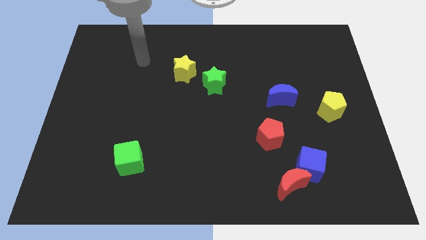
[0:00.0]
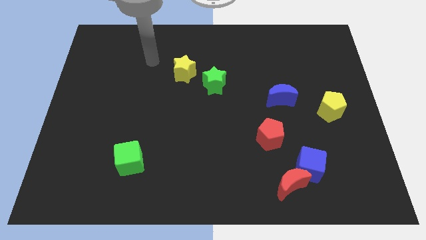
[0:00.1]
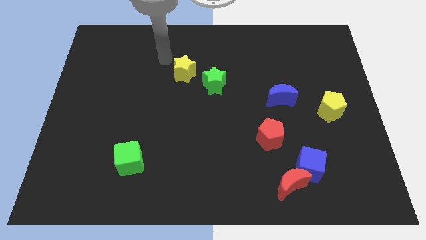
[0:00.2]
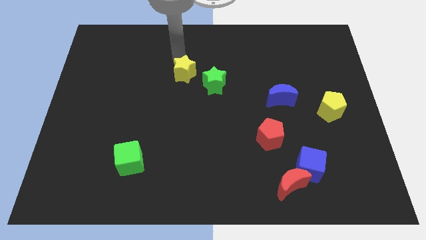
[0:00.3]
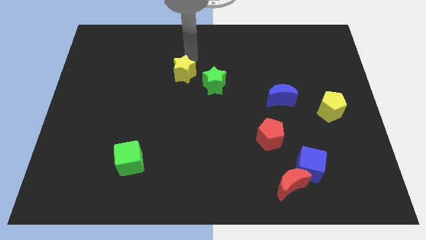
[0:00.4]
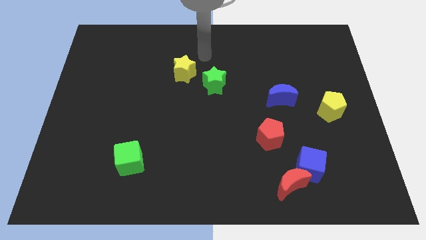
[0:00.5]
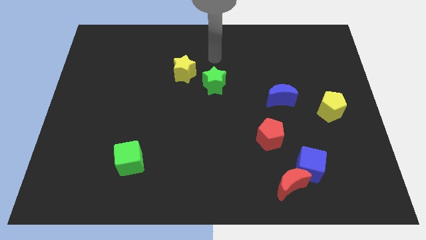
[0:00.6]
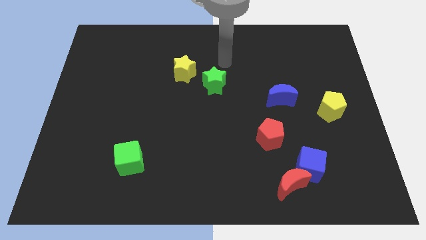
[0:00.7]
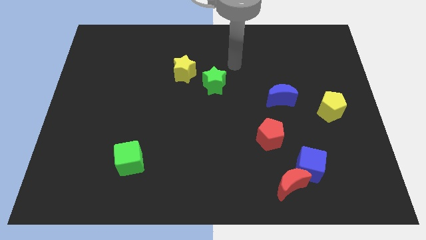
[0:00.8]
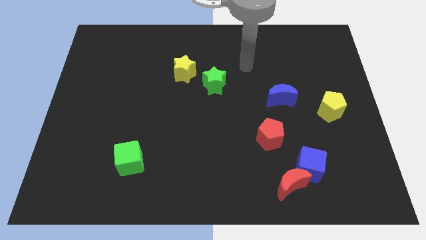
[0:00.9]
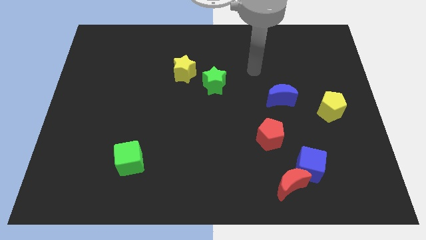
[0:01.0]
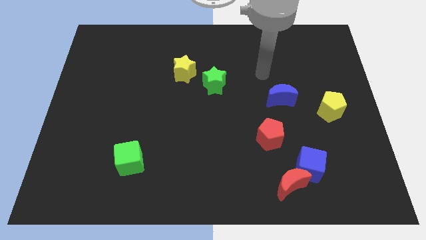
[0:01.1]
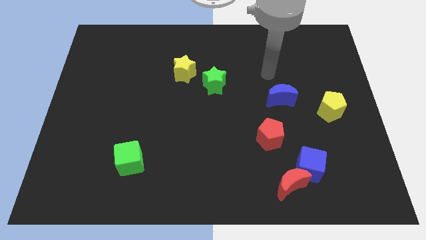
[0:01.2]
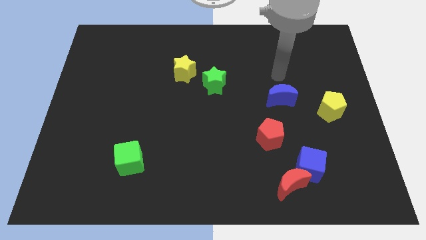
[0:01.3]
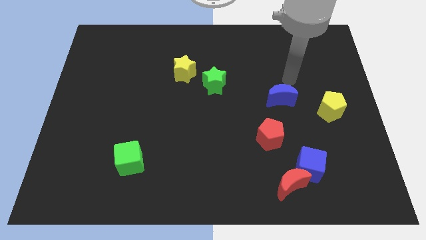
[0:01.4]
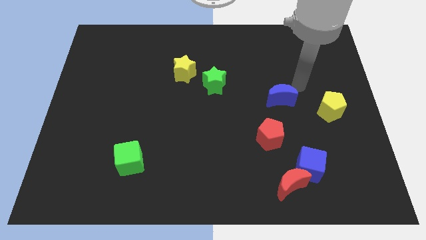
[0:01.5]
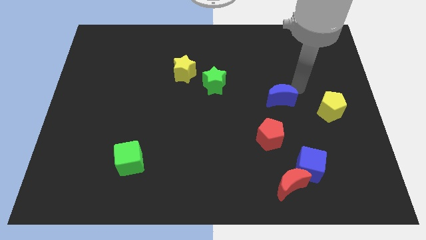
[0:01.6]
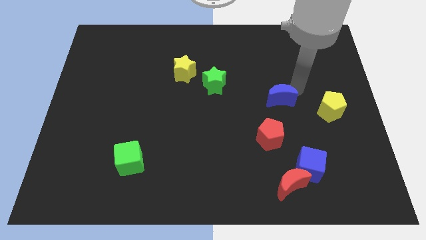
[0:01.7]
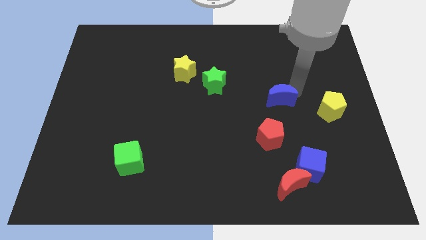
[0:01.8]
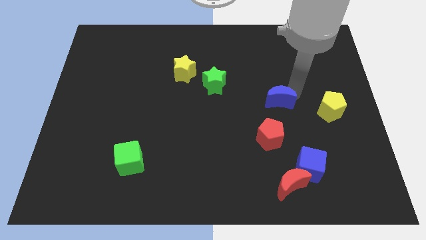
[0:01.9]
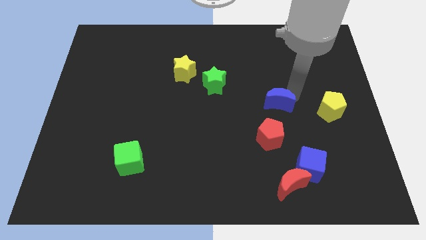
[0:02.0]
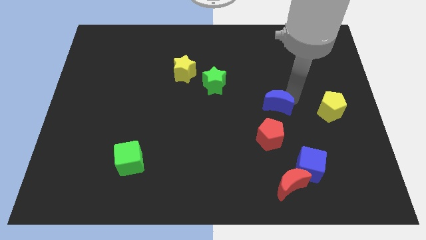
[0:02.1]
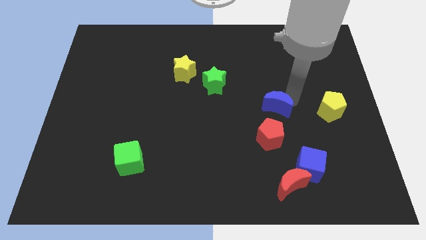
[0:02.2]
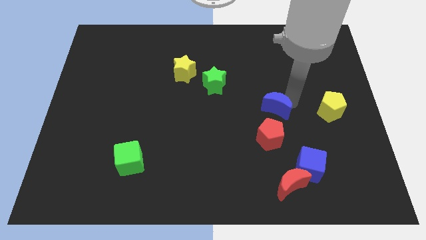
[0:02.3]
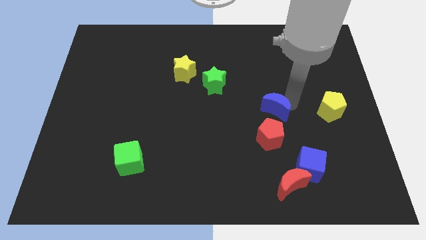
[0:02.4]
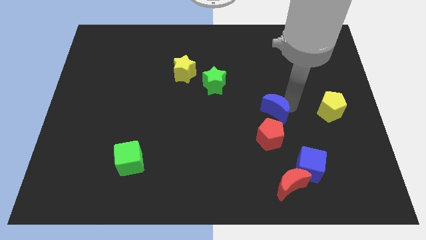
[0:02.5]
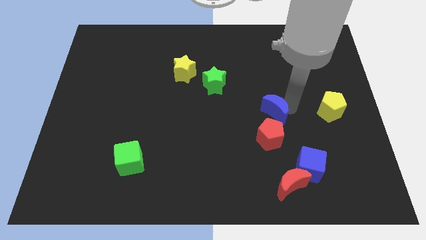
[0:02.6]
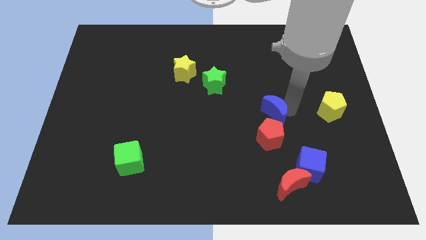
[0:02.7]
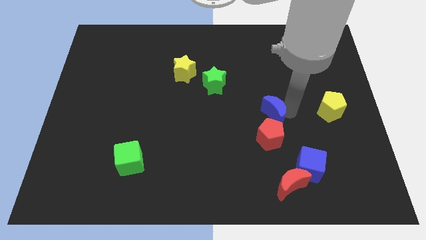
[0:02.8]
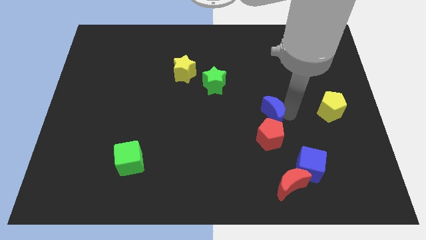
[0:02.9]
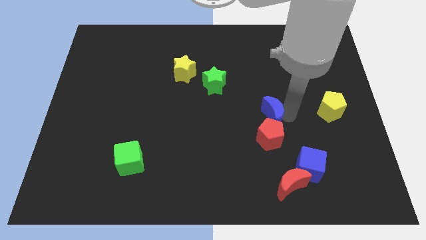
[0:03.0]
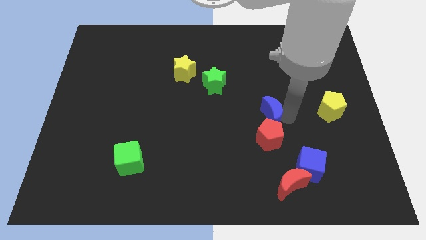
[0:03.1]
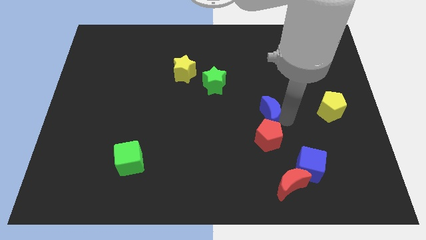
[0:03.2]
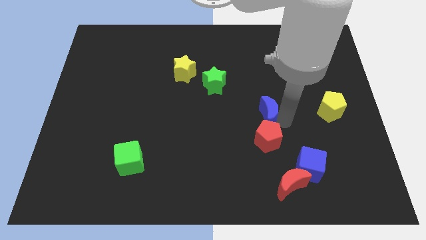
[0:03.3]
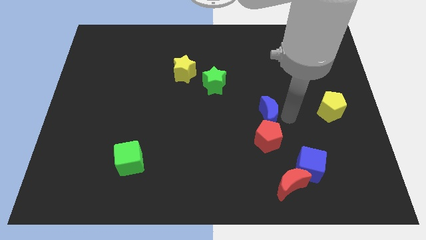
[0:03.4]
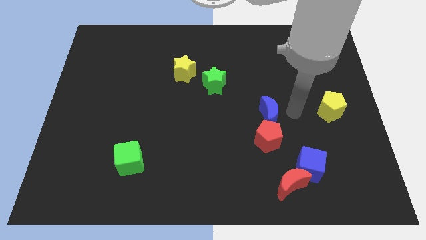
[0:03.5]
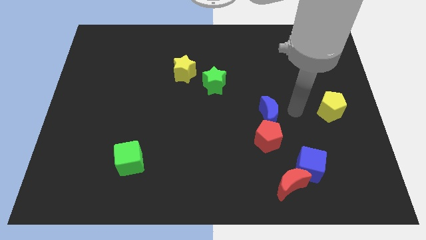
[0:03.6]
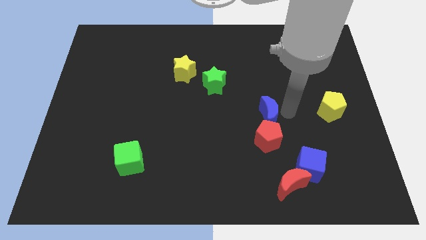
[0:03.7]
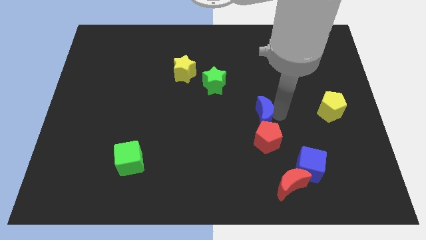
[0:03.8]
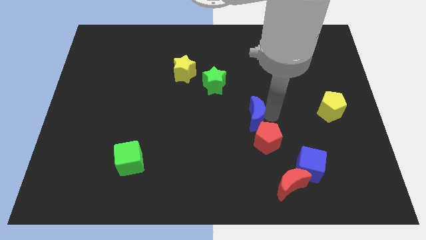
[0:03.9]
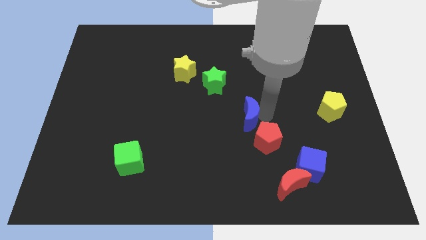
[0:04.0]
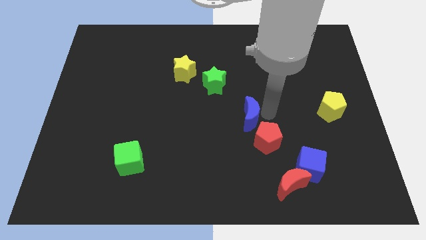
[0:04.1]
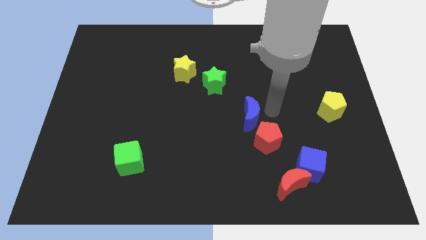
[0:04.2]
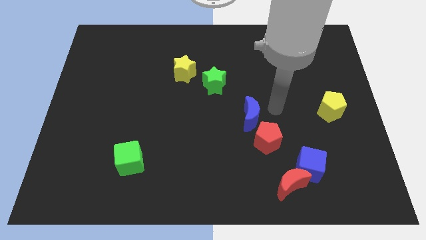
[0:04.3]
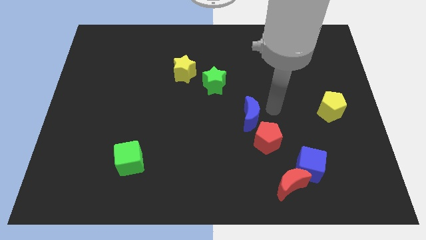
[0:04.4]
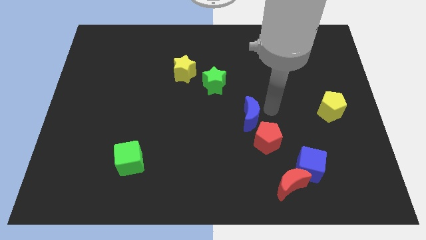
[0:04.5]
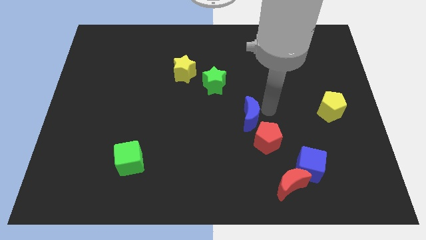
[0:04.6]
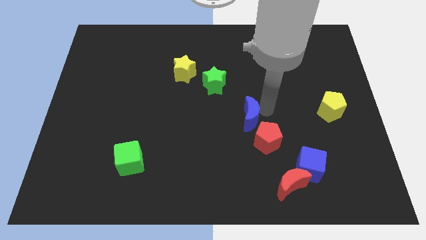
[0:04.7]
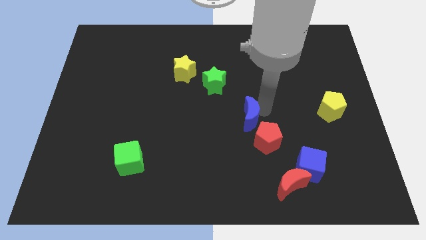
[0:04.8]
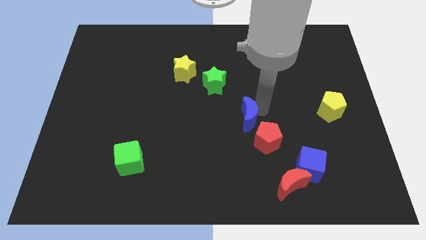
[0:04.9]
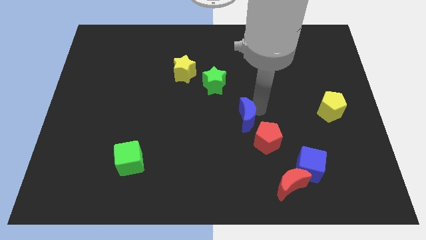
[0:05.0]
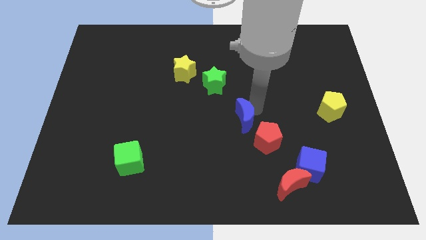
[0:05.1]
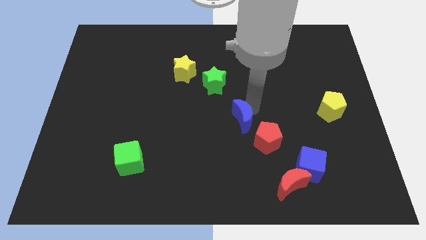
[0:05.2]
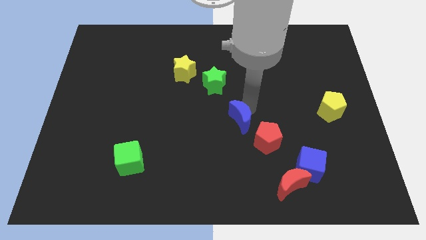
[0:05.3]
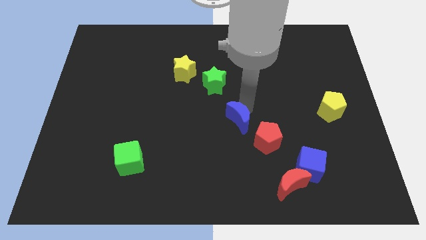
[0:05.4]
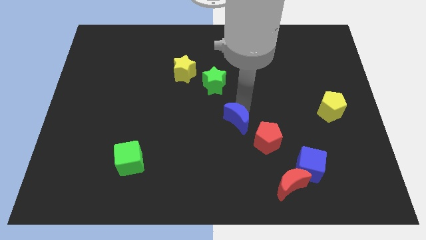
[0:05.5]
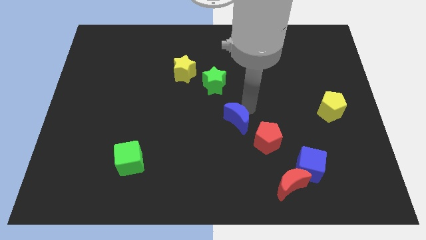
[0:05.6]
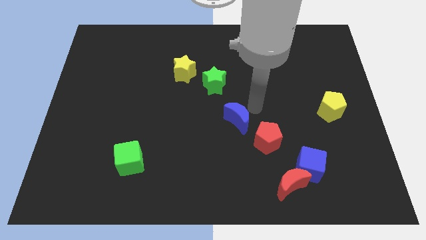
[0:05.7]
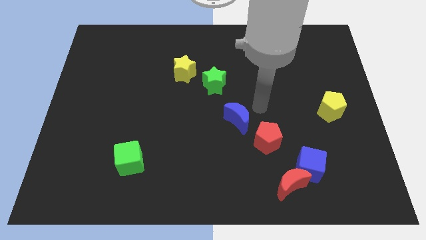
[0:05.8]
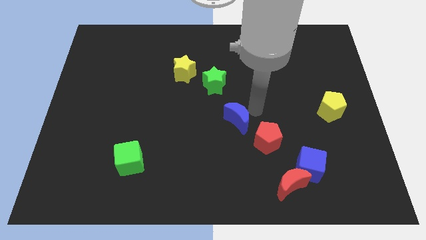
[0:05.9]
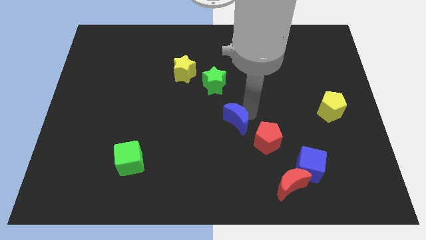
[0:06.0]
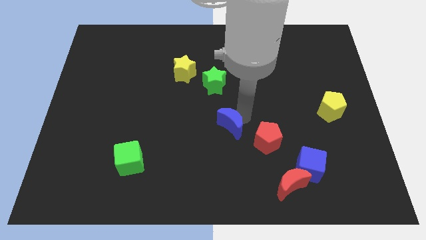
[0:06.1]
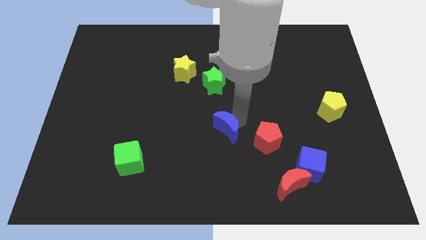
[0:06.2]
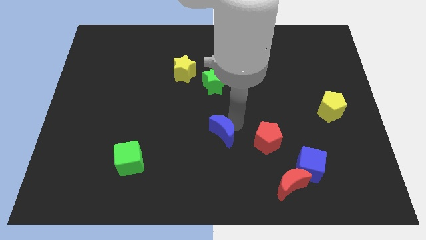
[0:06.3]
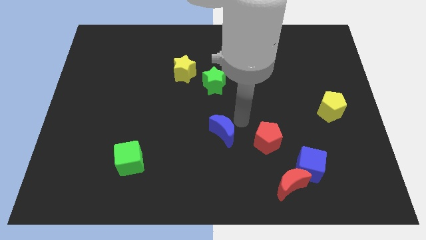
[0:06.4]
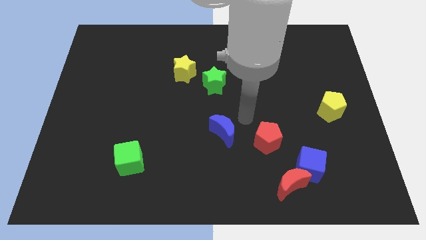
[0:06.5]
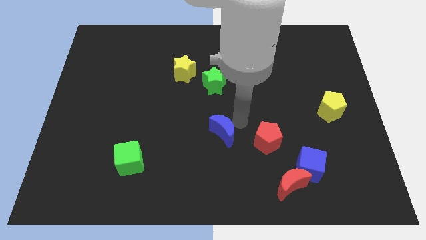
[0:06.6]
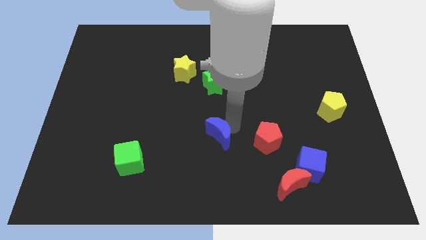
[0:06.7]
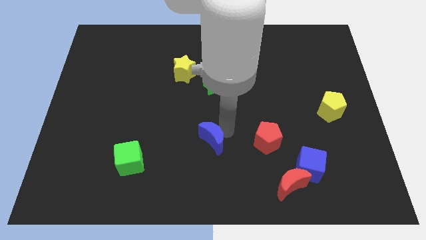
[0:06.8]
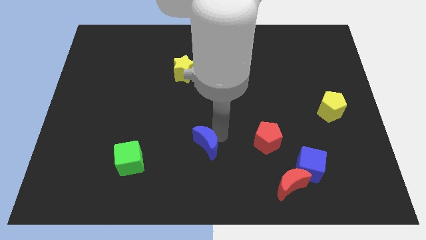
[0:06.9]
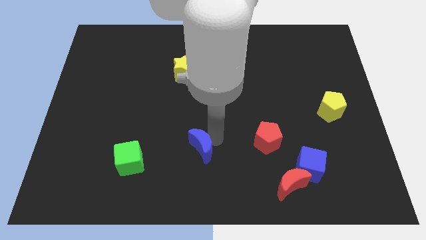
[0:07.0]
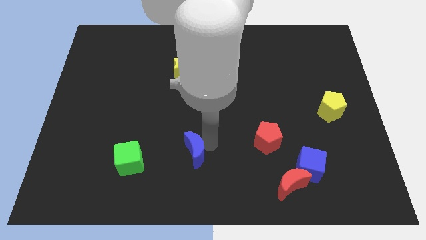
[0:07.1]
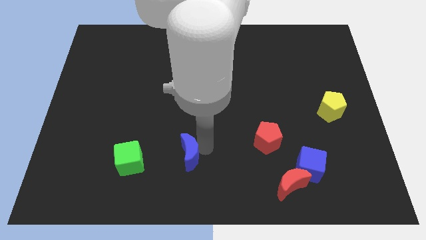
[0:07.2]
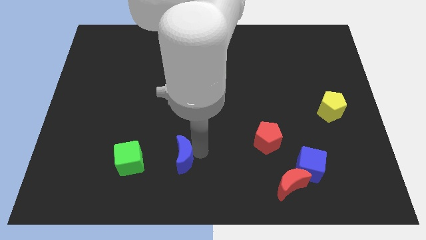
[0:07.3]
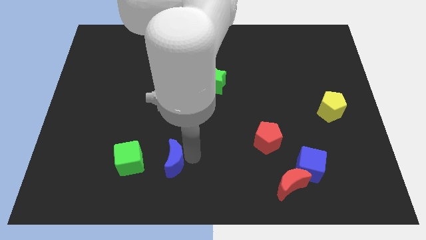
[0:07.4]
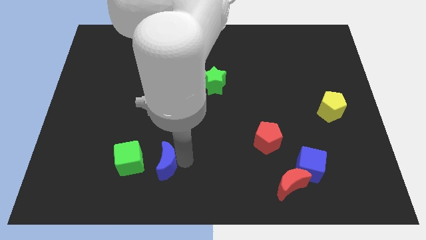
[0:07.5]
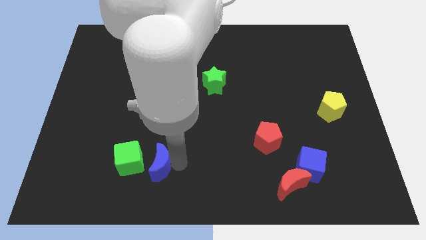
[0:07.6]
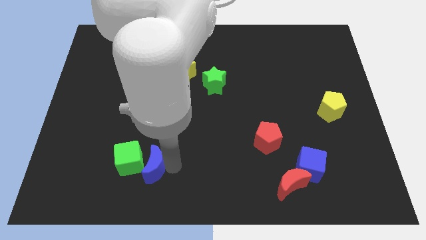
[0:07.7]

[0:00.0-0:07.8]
slide the blue moon towards the green cube
